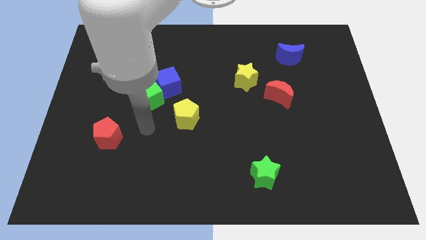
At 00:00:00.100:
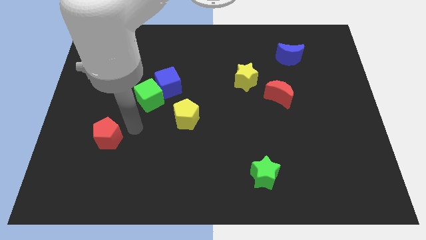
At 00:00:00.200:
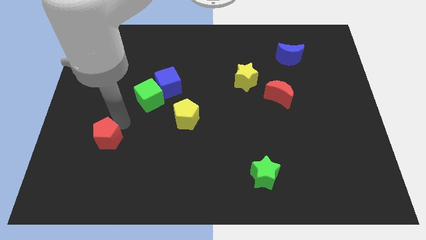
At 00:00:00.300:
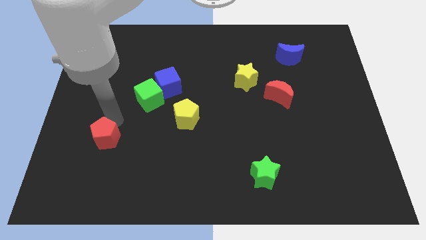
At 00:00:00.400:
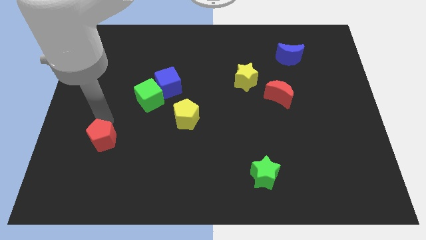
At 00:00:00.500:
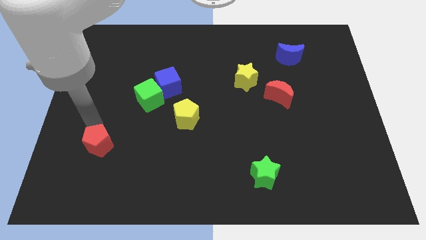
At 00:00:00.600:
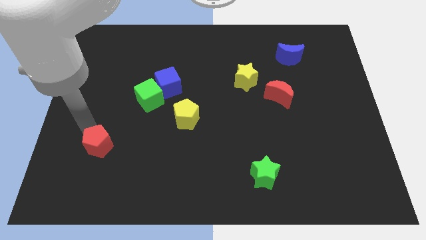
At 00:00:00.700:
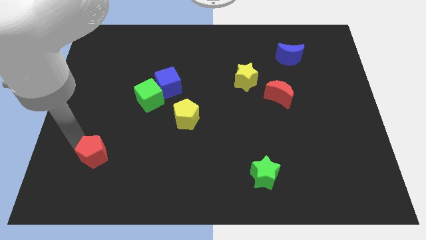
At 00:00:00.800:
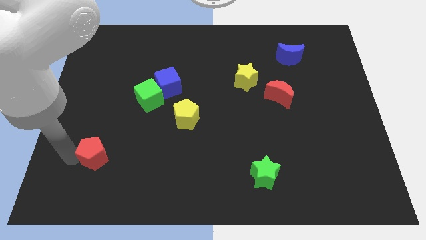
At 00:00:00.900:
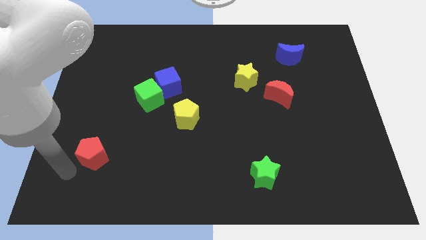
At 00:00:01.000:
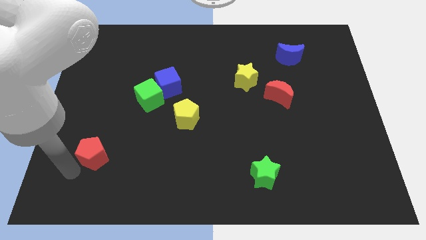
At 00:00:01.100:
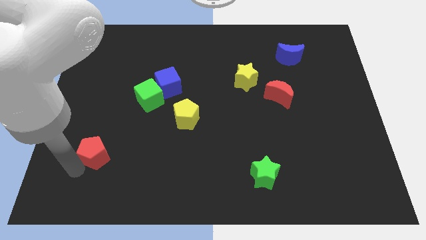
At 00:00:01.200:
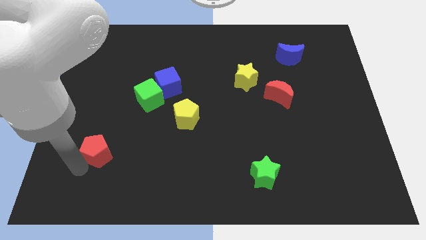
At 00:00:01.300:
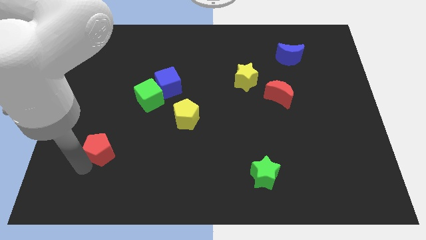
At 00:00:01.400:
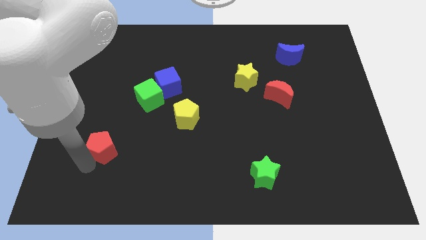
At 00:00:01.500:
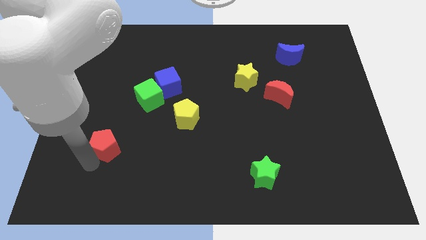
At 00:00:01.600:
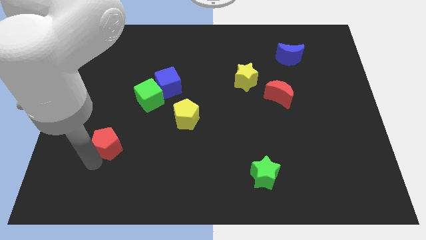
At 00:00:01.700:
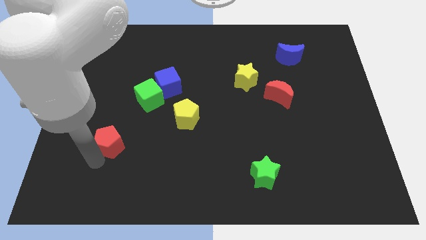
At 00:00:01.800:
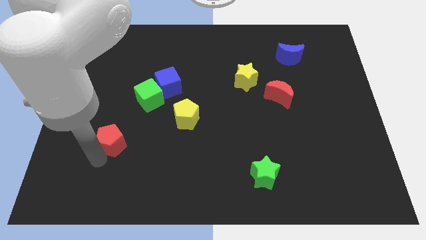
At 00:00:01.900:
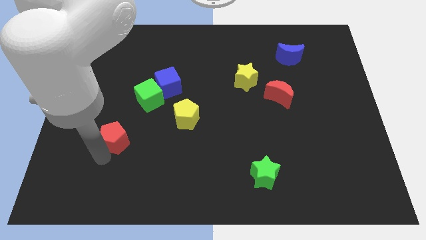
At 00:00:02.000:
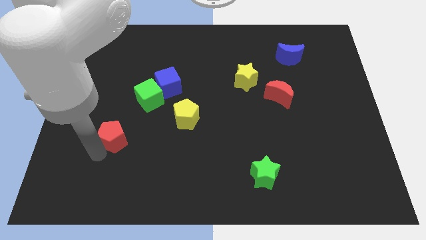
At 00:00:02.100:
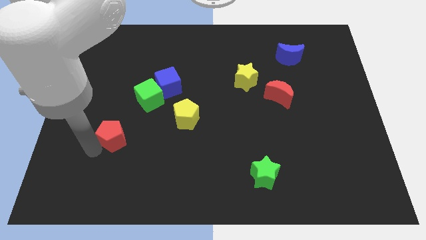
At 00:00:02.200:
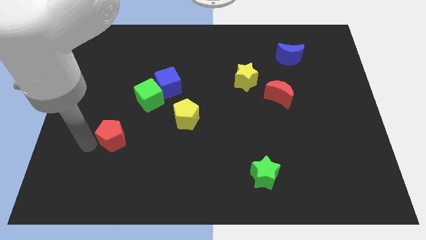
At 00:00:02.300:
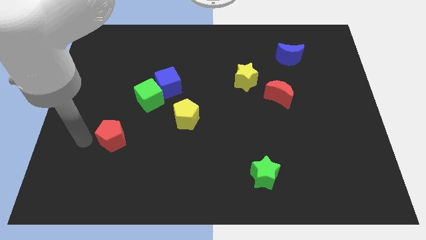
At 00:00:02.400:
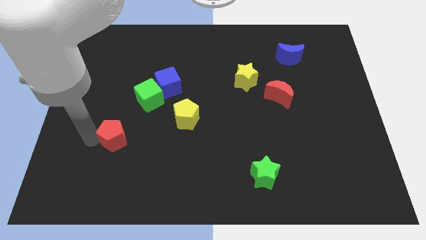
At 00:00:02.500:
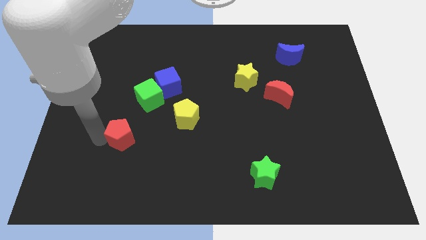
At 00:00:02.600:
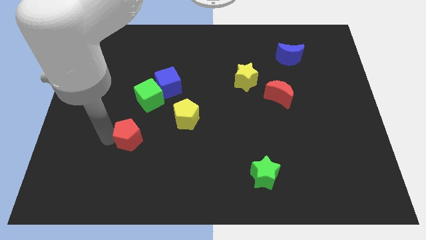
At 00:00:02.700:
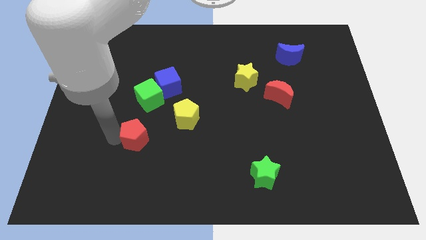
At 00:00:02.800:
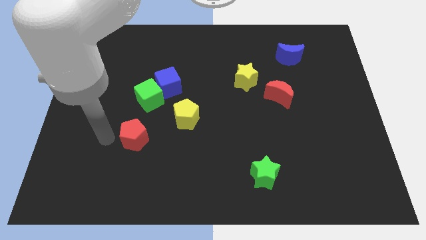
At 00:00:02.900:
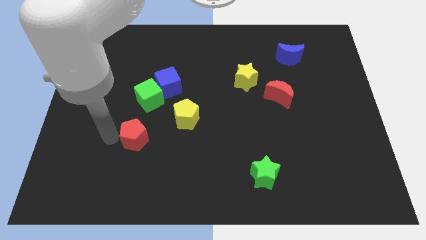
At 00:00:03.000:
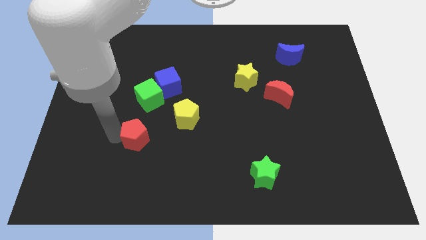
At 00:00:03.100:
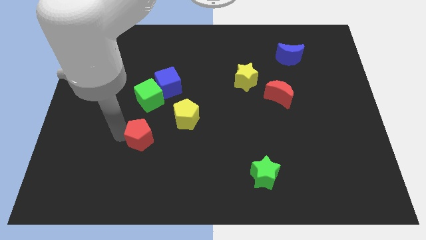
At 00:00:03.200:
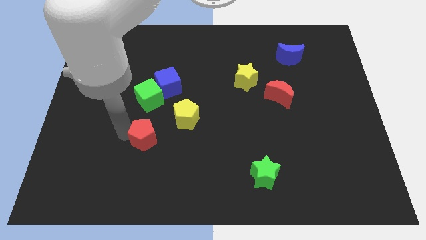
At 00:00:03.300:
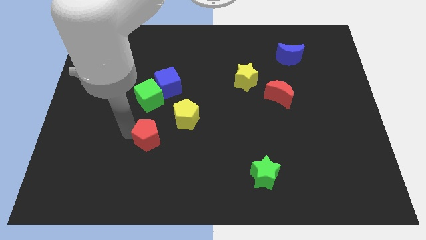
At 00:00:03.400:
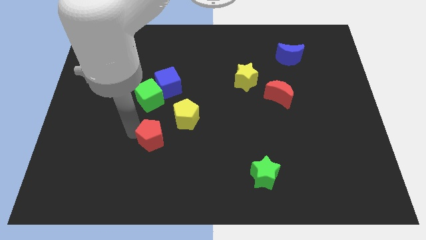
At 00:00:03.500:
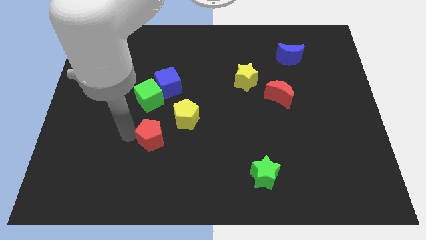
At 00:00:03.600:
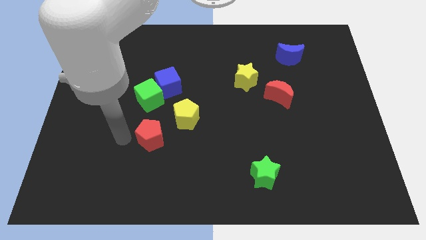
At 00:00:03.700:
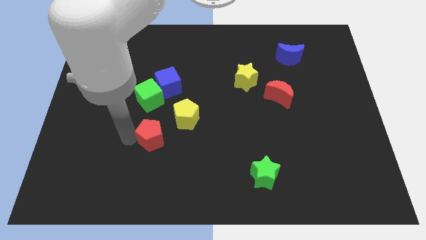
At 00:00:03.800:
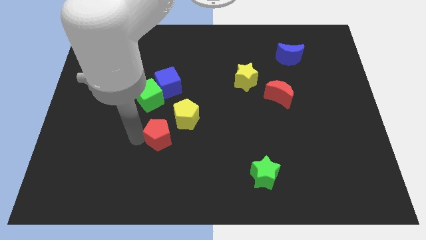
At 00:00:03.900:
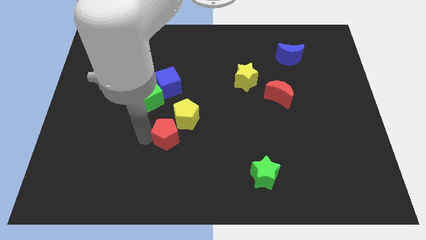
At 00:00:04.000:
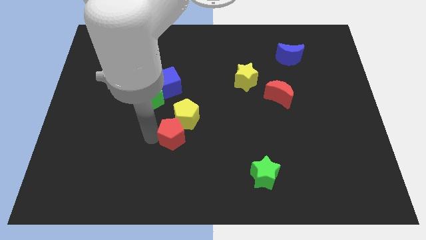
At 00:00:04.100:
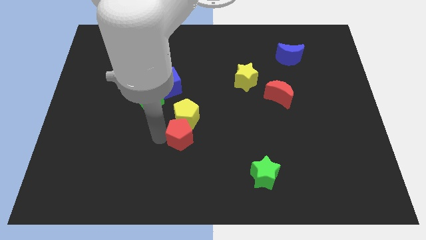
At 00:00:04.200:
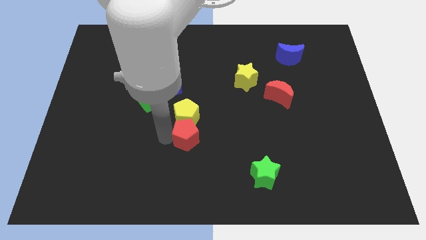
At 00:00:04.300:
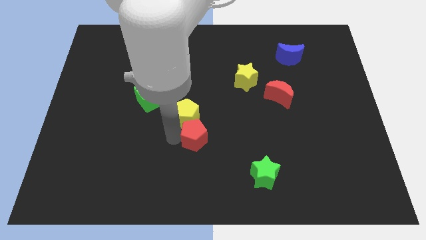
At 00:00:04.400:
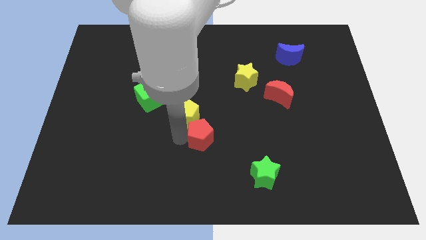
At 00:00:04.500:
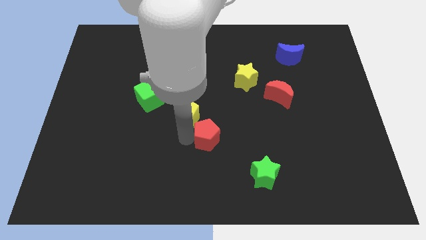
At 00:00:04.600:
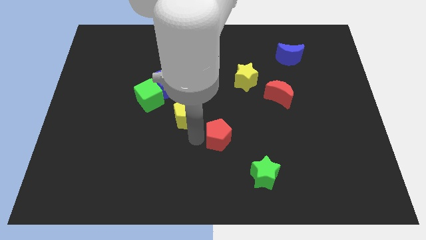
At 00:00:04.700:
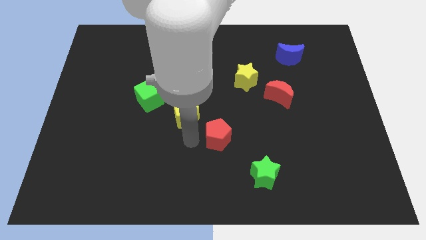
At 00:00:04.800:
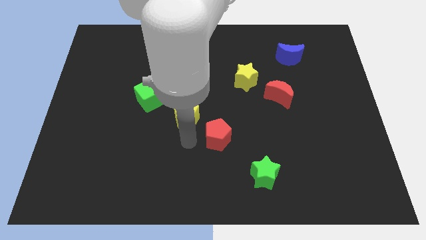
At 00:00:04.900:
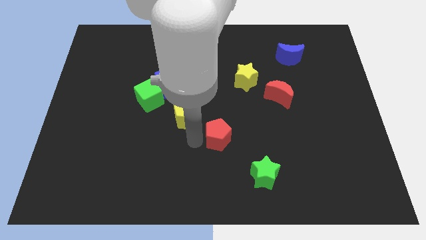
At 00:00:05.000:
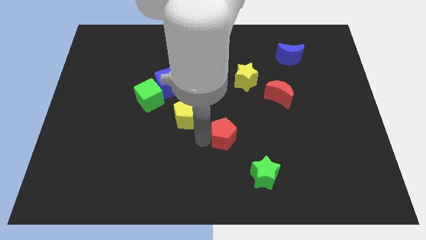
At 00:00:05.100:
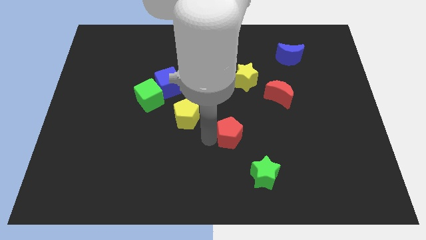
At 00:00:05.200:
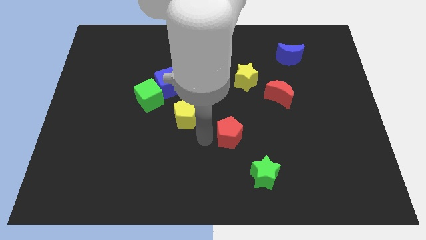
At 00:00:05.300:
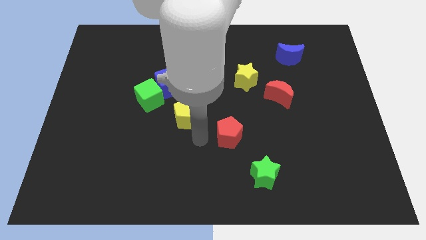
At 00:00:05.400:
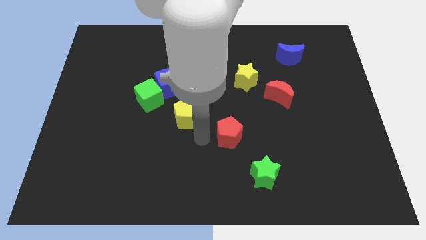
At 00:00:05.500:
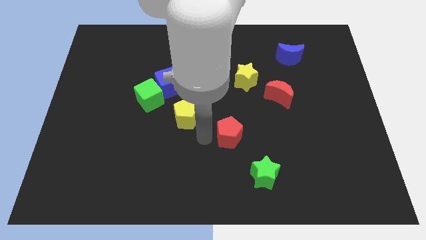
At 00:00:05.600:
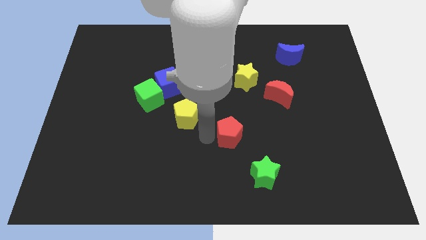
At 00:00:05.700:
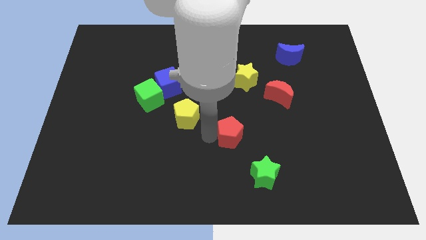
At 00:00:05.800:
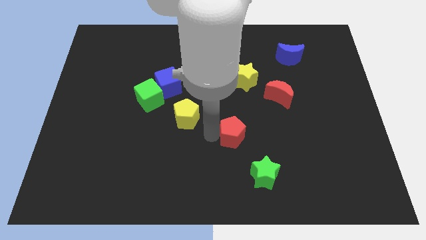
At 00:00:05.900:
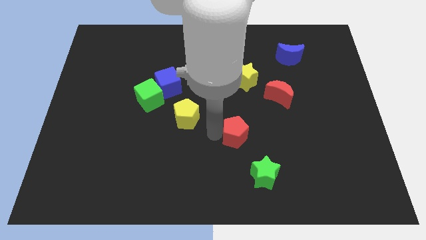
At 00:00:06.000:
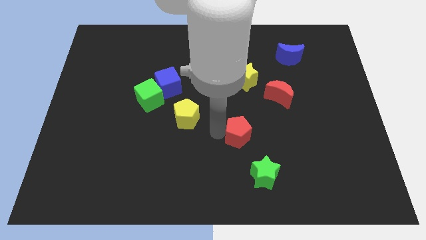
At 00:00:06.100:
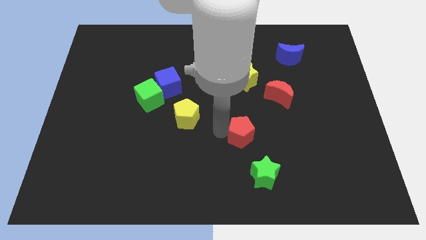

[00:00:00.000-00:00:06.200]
push the red pentagon to the top side of the green star

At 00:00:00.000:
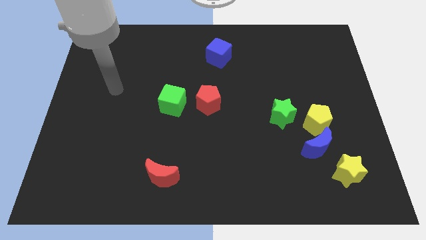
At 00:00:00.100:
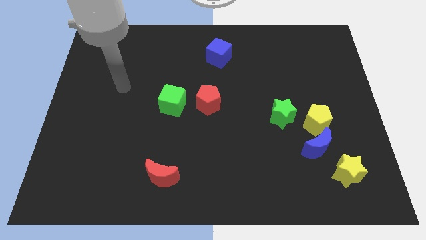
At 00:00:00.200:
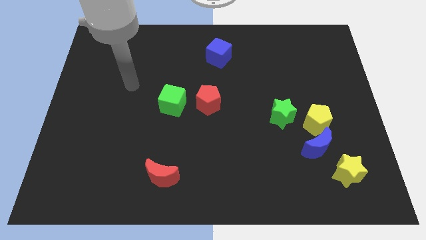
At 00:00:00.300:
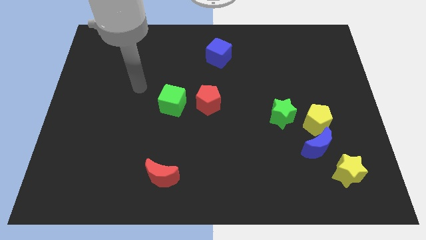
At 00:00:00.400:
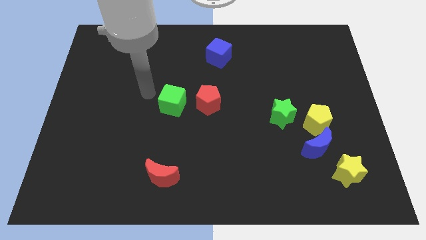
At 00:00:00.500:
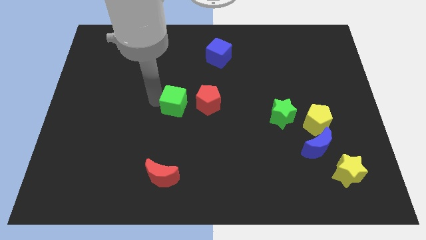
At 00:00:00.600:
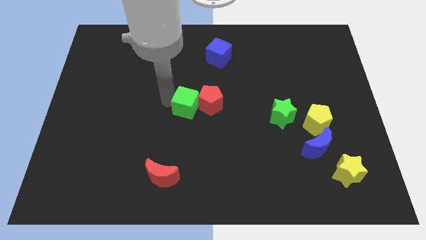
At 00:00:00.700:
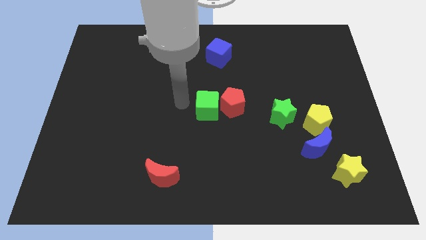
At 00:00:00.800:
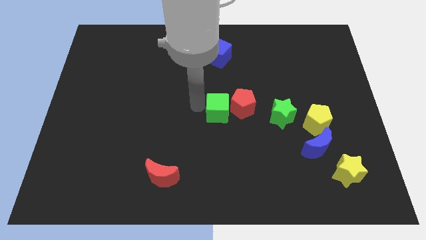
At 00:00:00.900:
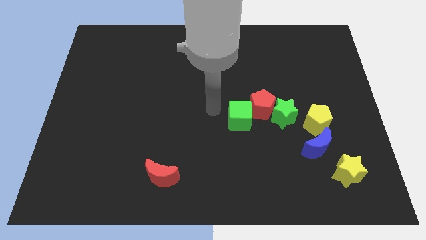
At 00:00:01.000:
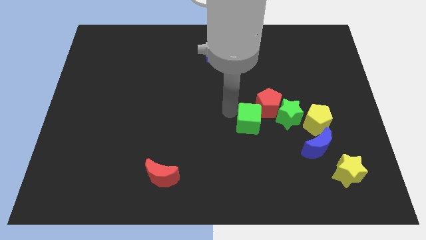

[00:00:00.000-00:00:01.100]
move the red pentagon diagonally up and to the left of the yellow pentagon
